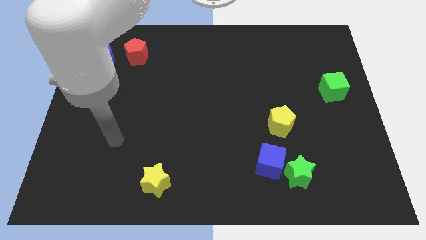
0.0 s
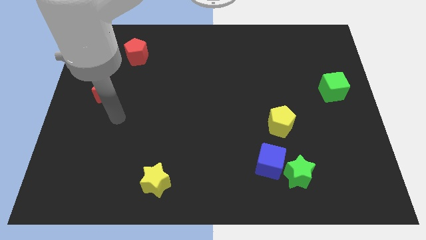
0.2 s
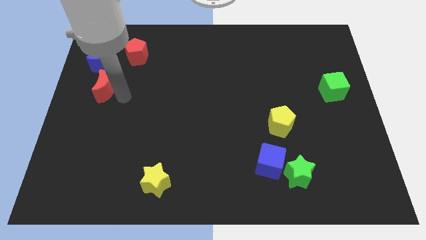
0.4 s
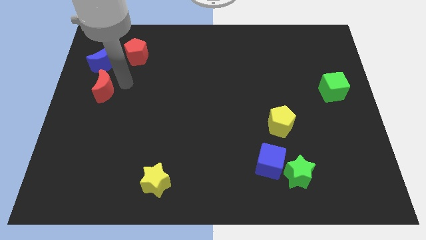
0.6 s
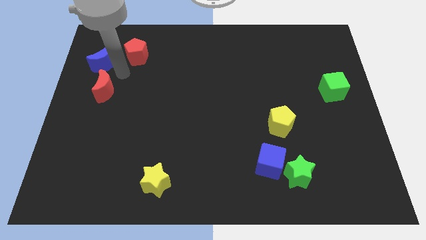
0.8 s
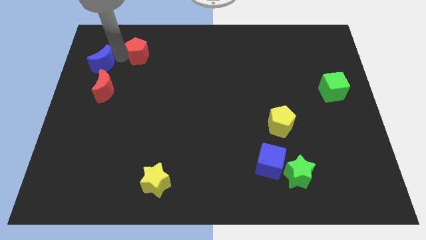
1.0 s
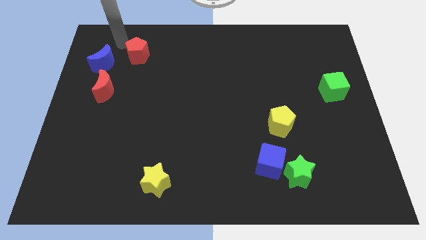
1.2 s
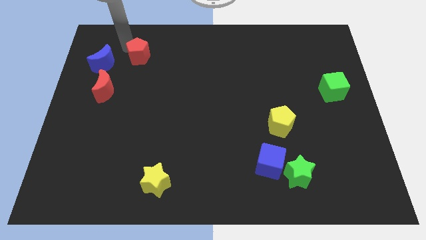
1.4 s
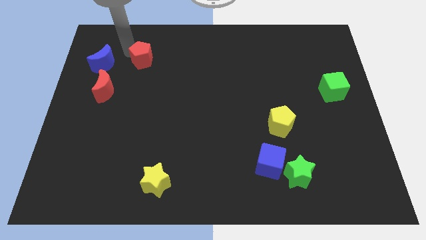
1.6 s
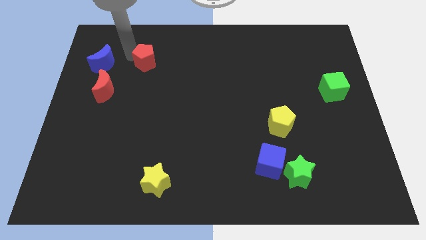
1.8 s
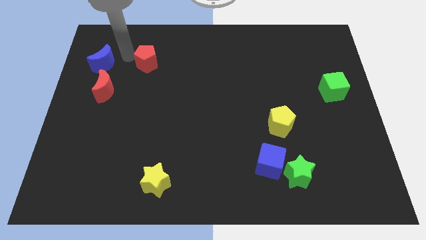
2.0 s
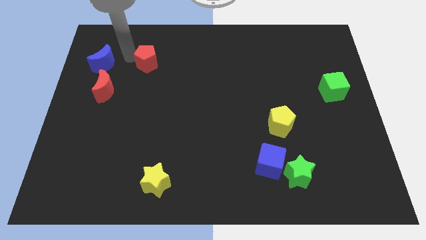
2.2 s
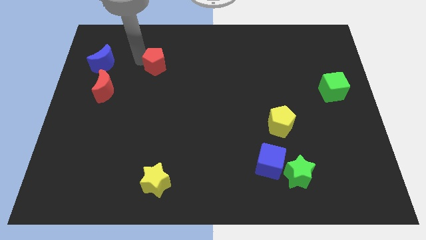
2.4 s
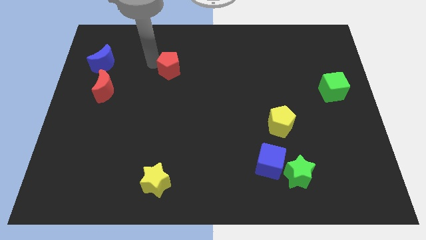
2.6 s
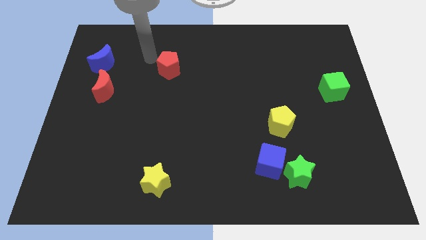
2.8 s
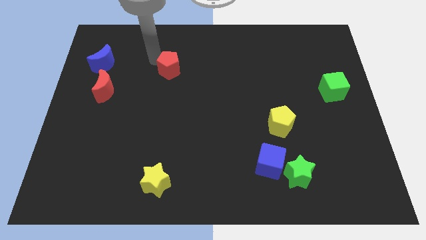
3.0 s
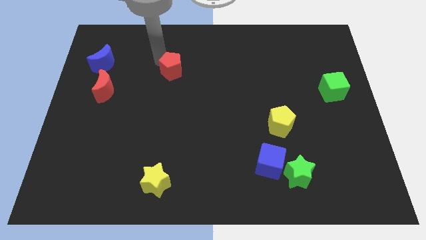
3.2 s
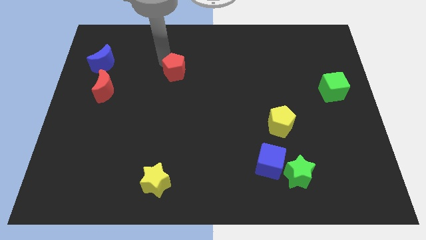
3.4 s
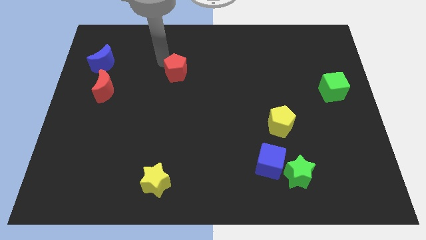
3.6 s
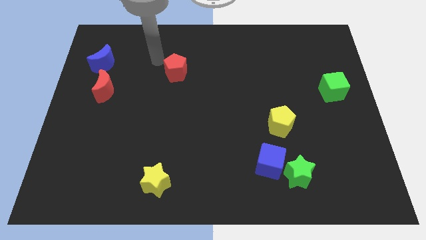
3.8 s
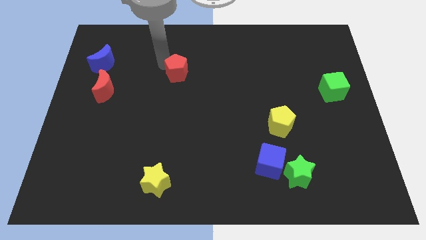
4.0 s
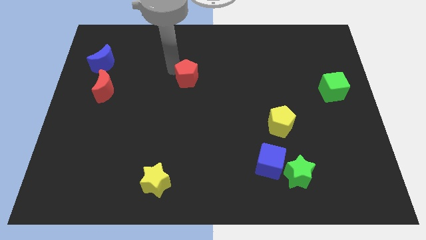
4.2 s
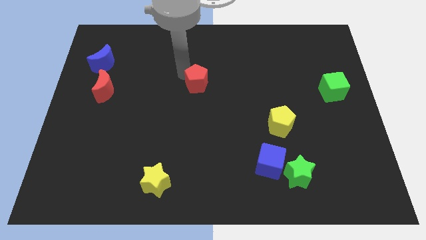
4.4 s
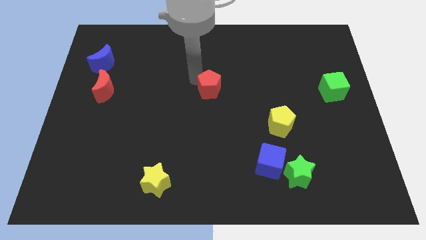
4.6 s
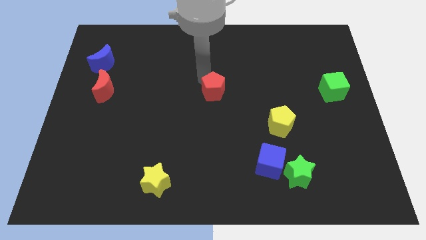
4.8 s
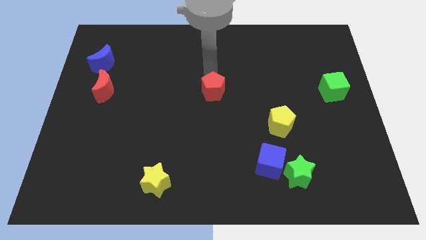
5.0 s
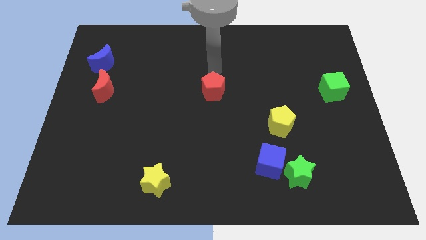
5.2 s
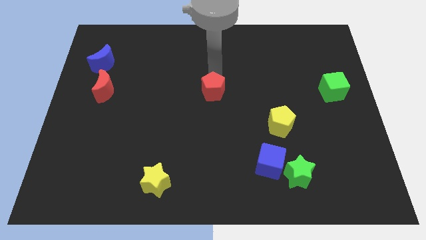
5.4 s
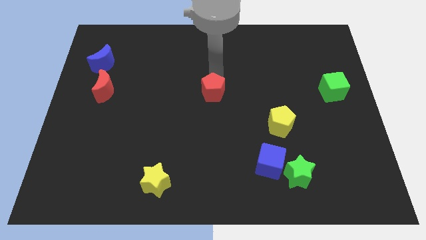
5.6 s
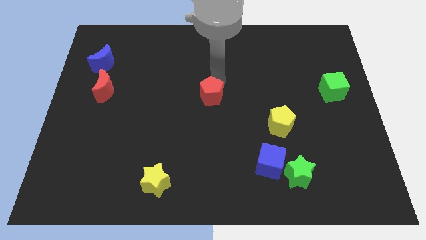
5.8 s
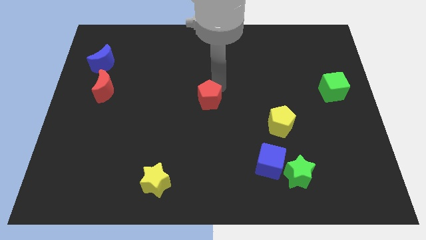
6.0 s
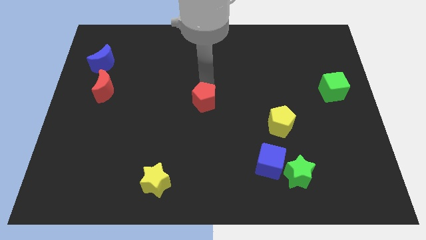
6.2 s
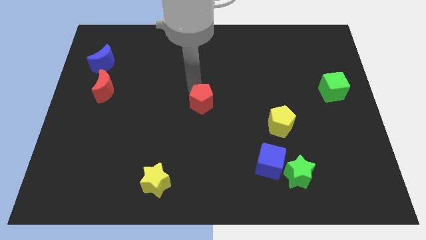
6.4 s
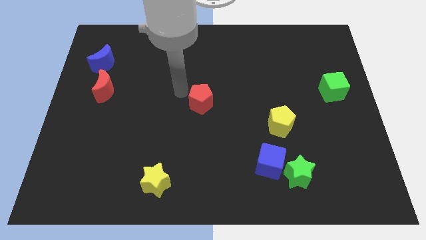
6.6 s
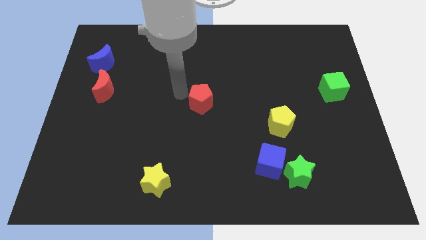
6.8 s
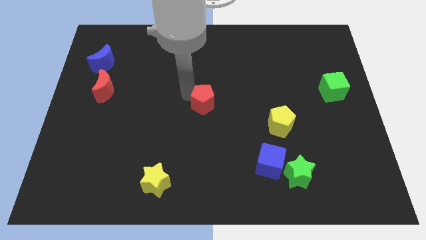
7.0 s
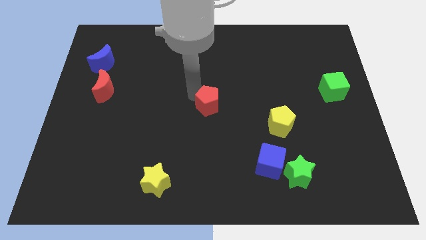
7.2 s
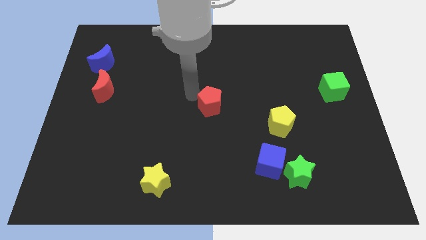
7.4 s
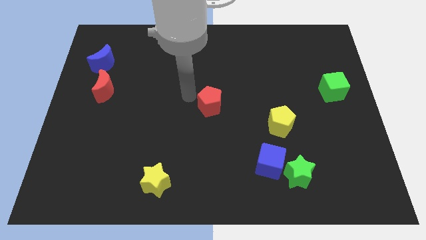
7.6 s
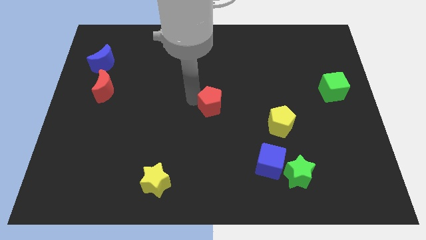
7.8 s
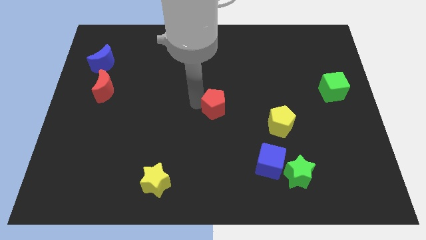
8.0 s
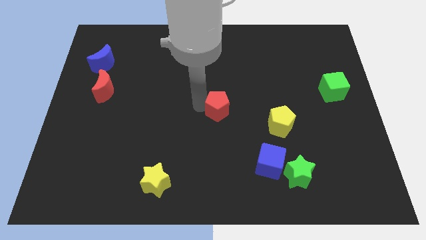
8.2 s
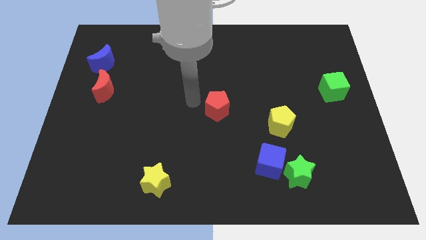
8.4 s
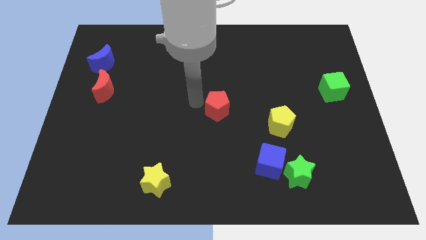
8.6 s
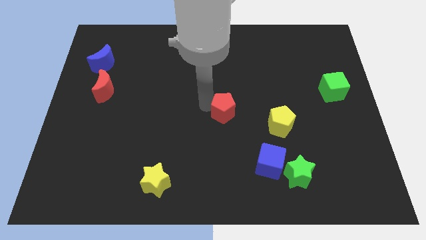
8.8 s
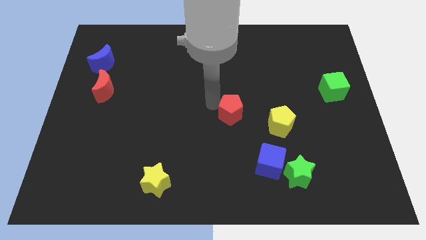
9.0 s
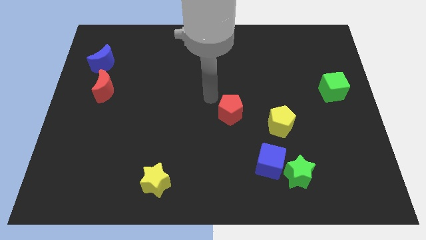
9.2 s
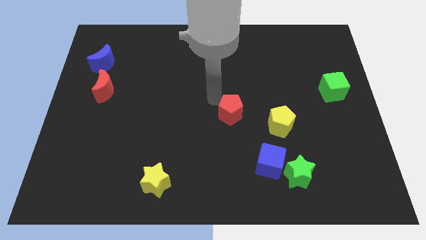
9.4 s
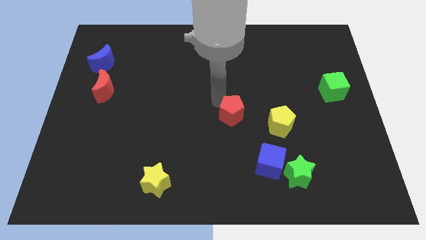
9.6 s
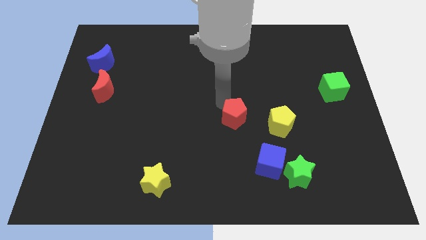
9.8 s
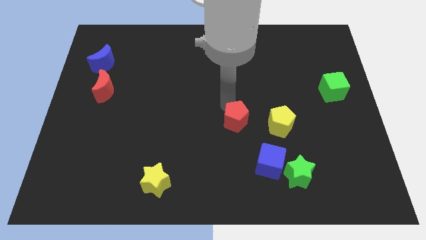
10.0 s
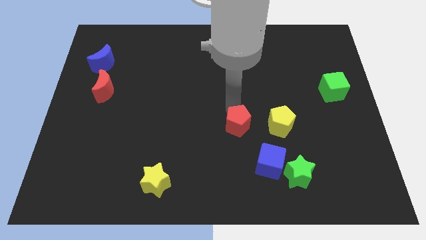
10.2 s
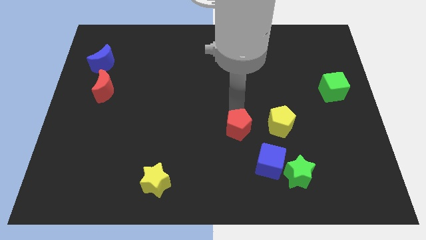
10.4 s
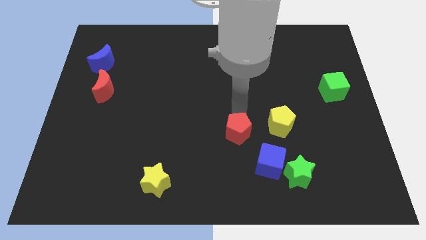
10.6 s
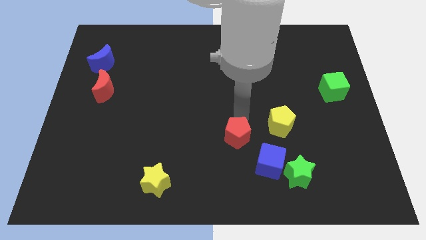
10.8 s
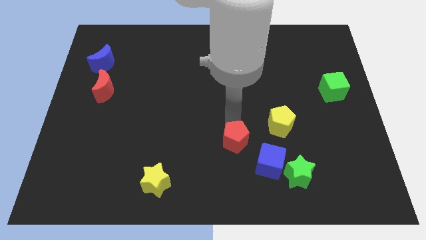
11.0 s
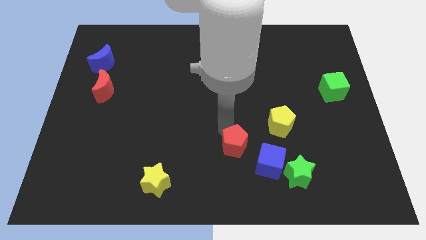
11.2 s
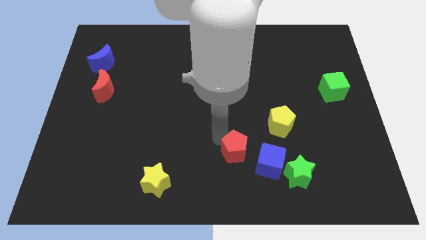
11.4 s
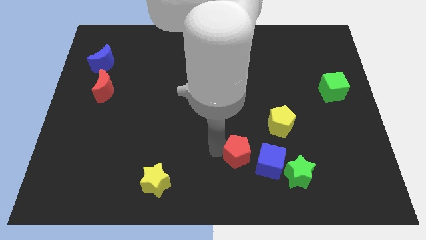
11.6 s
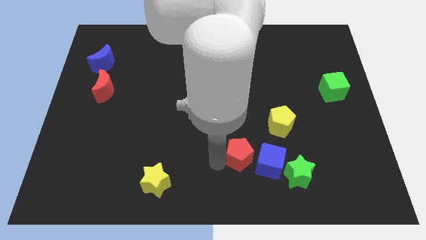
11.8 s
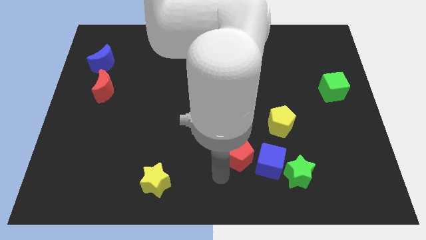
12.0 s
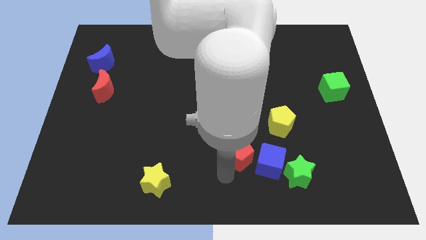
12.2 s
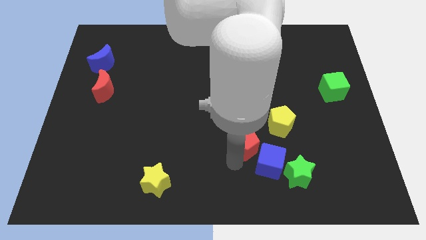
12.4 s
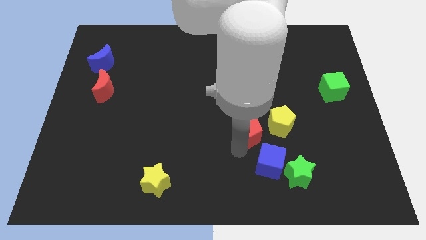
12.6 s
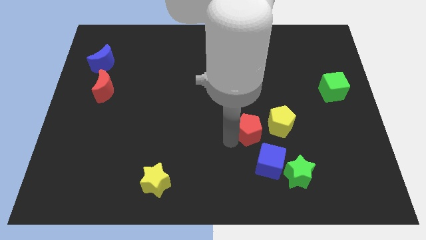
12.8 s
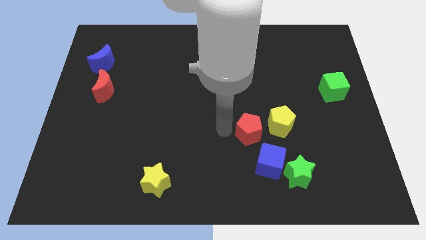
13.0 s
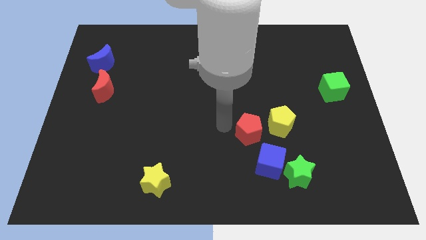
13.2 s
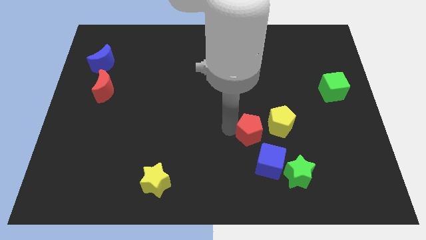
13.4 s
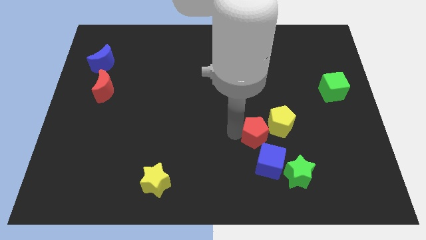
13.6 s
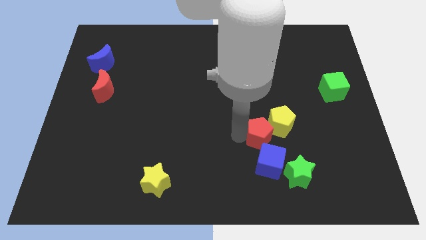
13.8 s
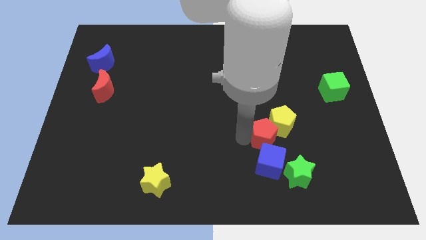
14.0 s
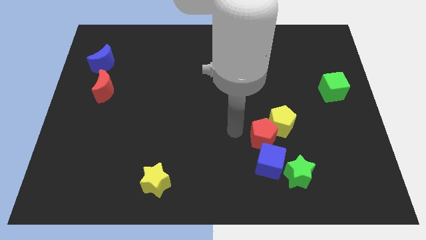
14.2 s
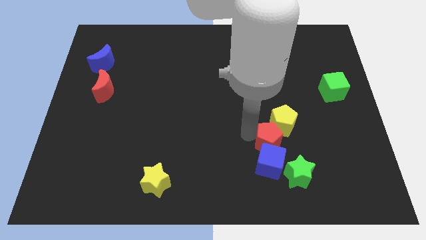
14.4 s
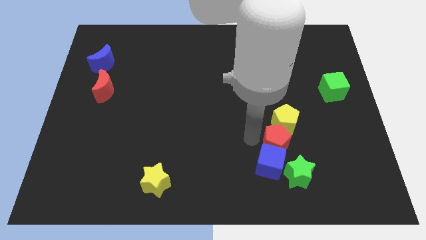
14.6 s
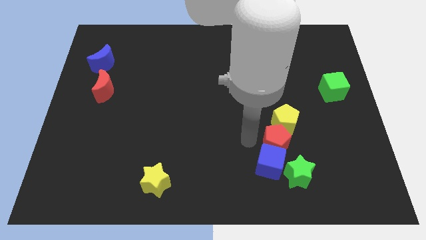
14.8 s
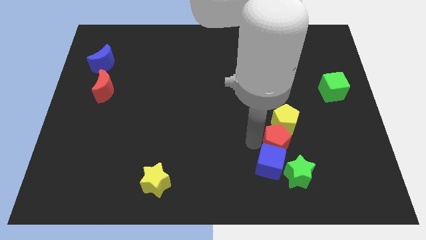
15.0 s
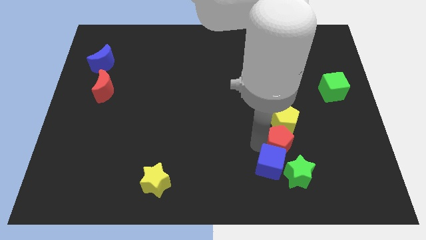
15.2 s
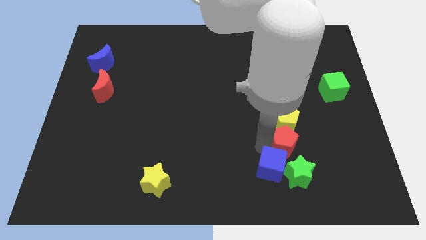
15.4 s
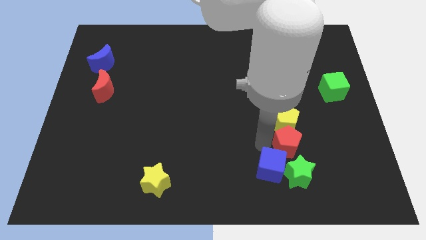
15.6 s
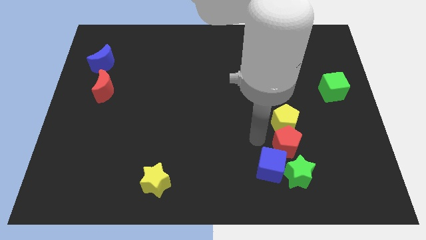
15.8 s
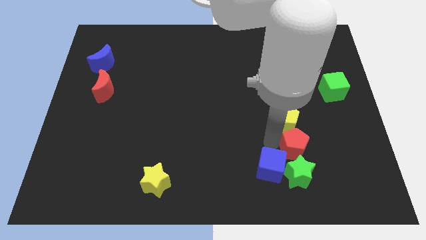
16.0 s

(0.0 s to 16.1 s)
push the red pentagon to the top right side of the green star
